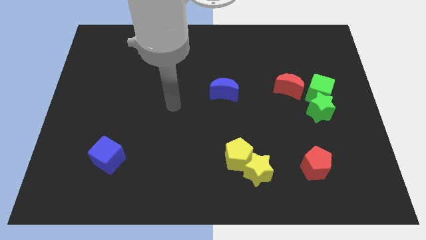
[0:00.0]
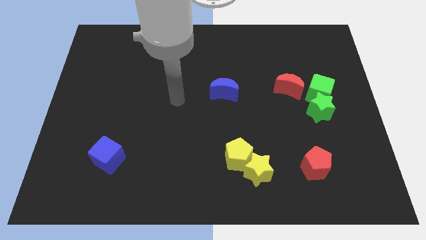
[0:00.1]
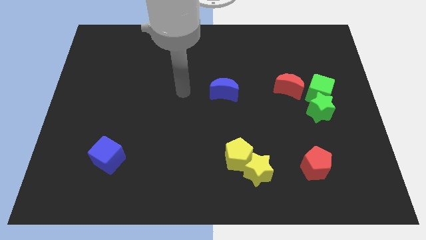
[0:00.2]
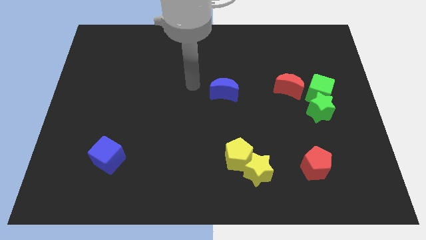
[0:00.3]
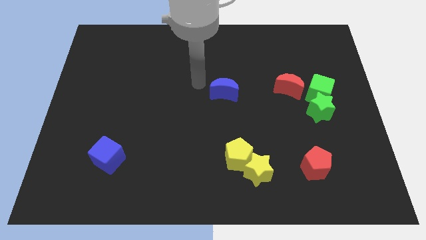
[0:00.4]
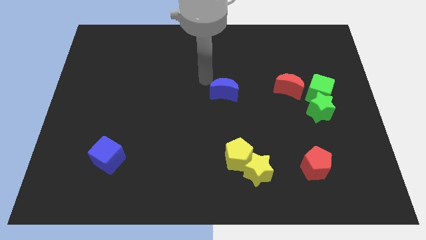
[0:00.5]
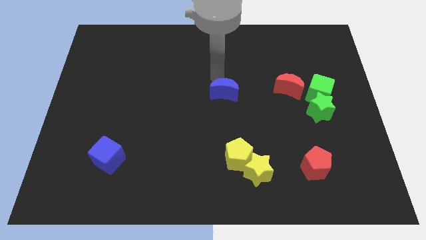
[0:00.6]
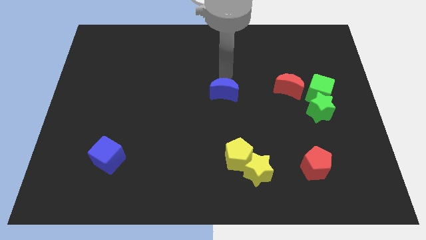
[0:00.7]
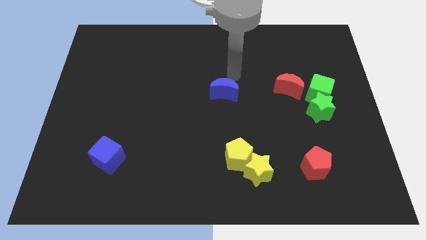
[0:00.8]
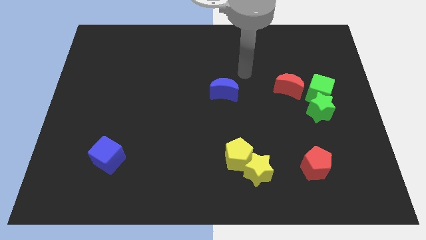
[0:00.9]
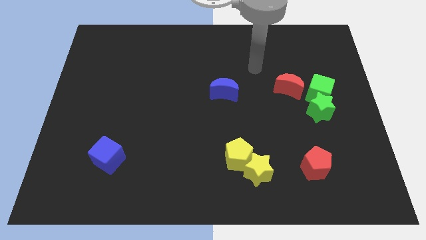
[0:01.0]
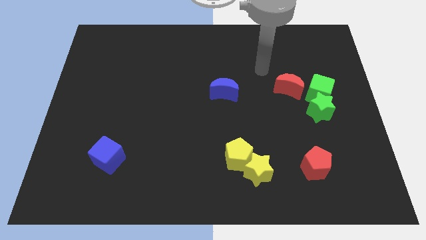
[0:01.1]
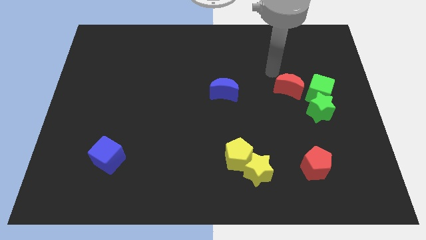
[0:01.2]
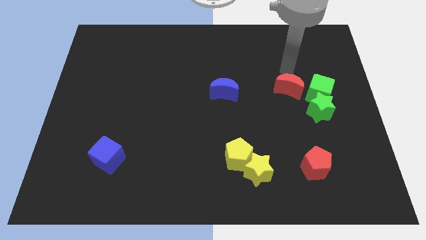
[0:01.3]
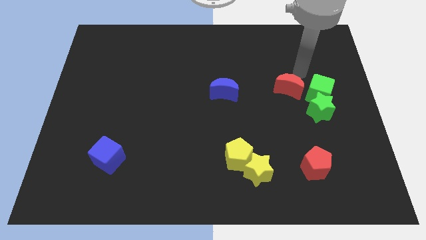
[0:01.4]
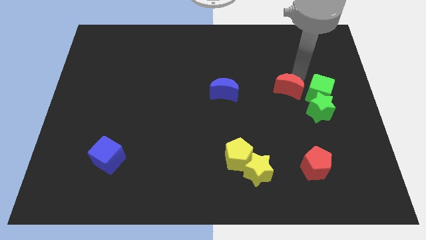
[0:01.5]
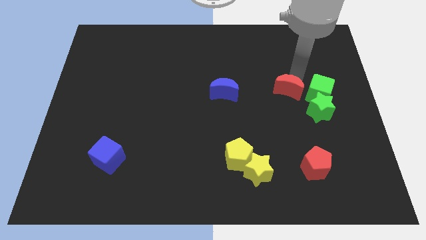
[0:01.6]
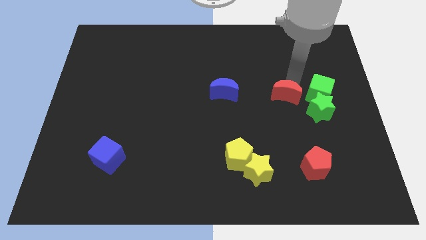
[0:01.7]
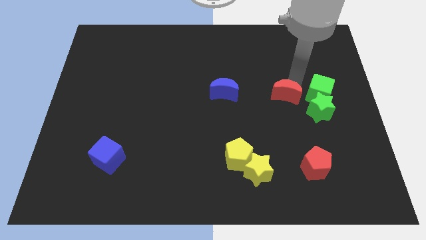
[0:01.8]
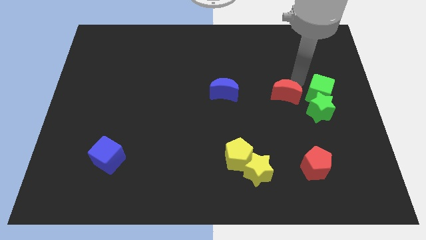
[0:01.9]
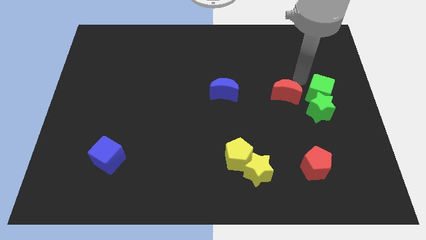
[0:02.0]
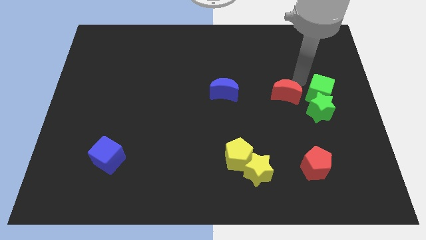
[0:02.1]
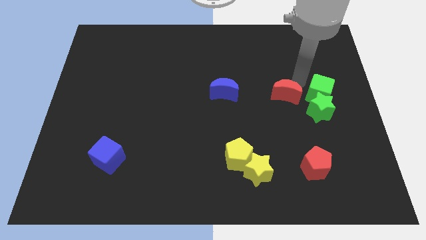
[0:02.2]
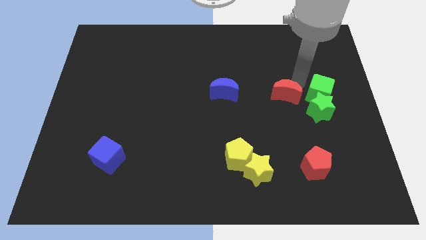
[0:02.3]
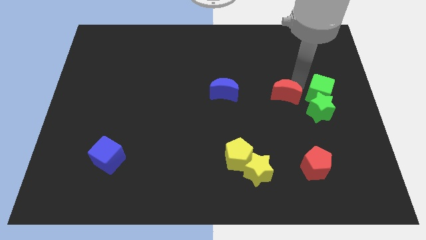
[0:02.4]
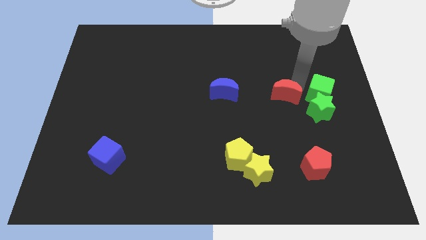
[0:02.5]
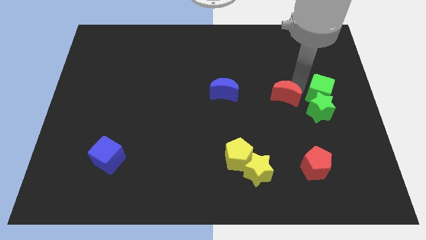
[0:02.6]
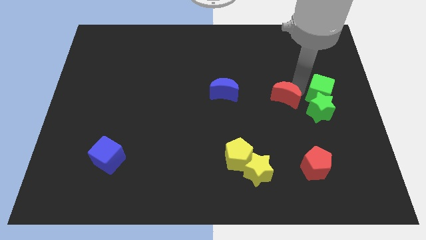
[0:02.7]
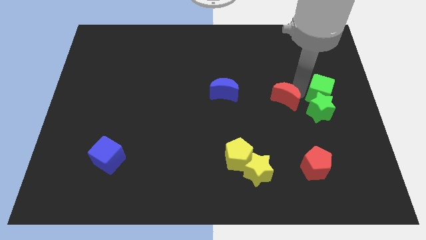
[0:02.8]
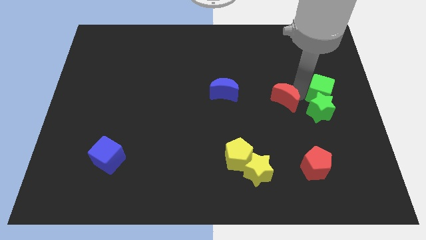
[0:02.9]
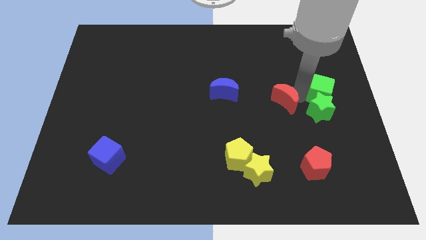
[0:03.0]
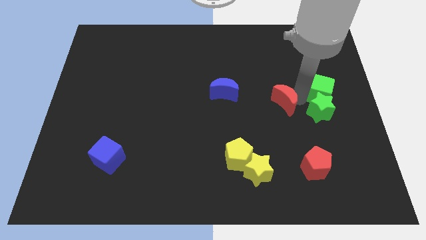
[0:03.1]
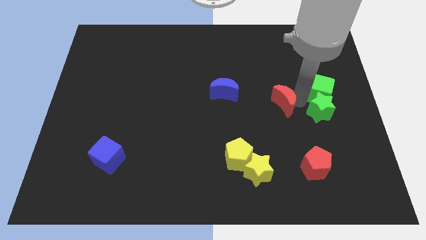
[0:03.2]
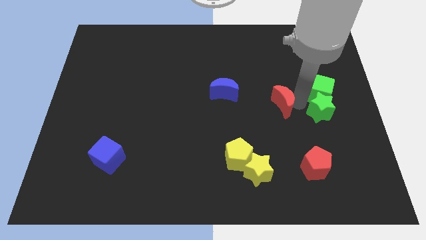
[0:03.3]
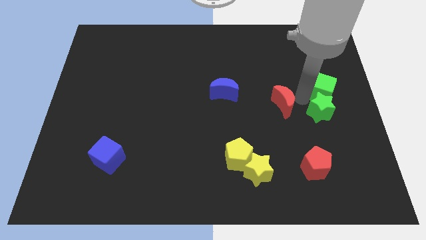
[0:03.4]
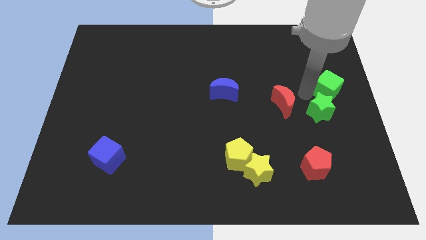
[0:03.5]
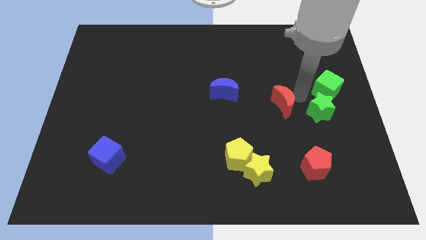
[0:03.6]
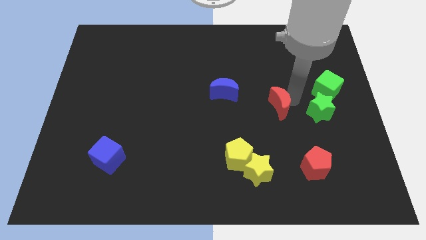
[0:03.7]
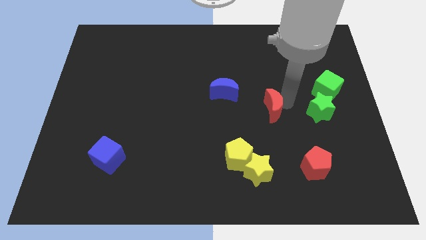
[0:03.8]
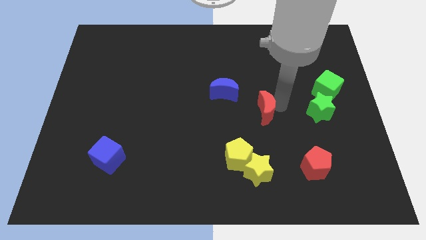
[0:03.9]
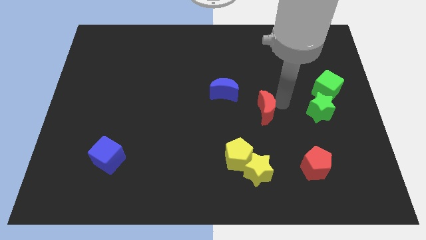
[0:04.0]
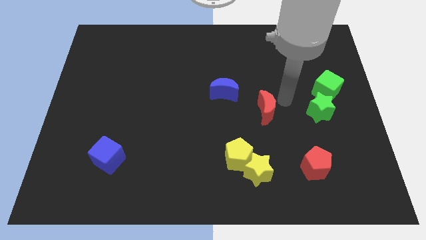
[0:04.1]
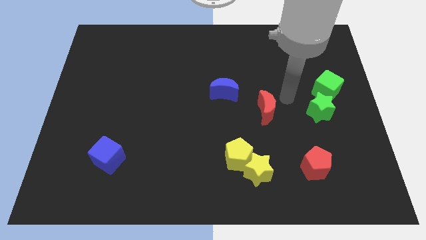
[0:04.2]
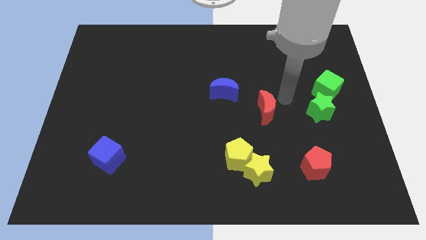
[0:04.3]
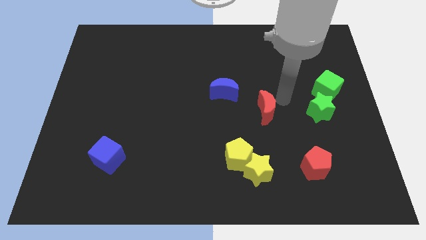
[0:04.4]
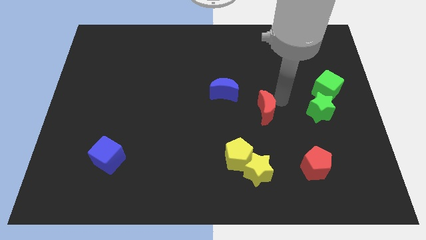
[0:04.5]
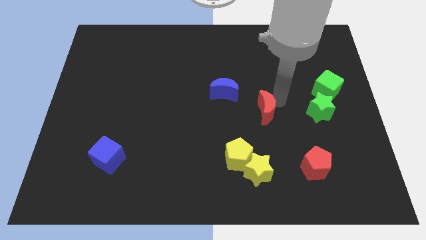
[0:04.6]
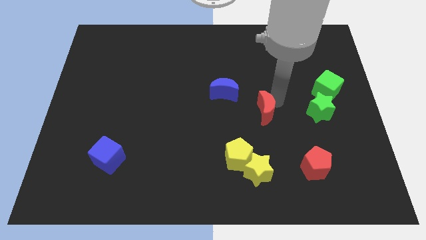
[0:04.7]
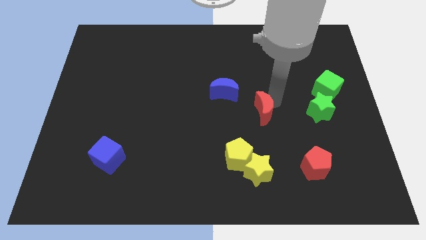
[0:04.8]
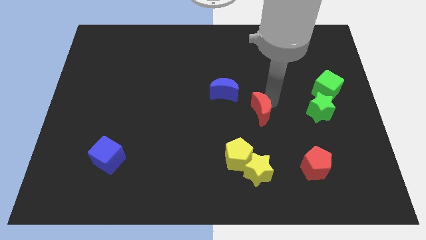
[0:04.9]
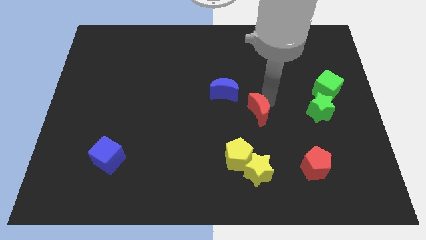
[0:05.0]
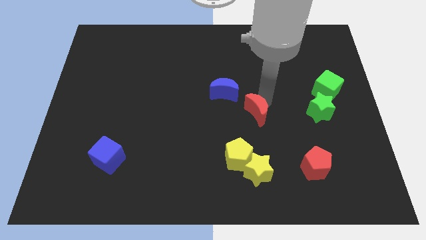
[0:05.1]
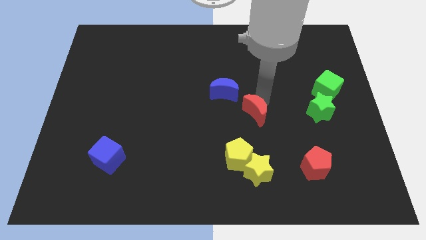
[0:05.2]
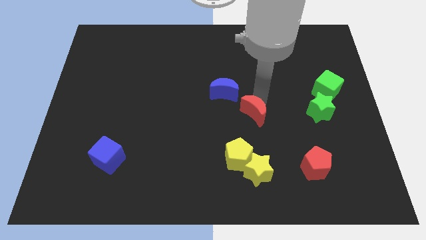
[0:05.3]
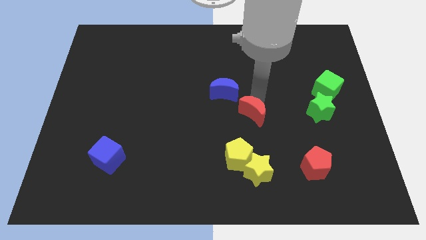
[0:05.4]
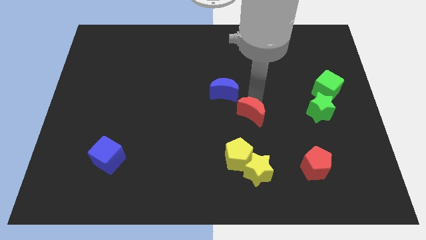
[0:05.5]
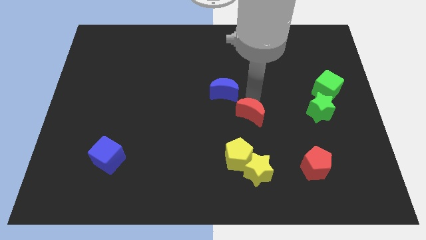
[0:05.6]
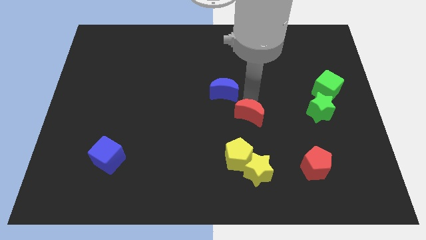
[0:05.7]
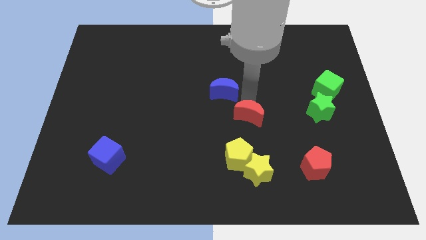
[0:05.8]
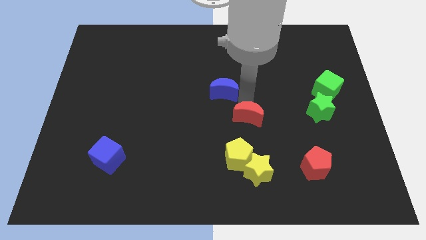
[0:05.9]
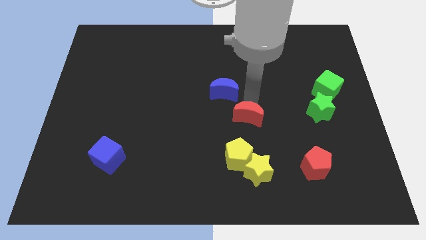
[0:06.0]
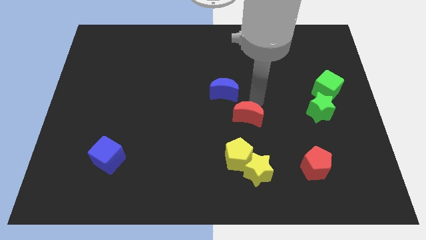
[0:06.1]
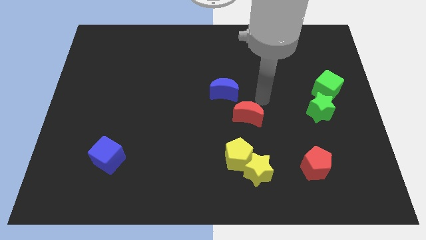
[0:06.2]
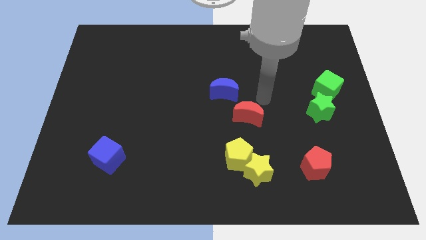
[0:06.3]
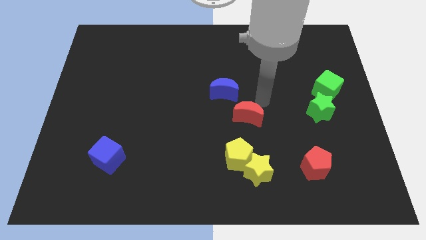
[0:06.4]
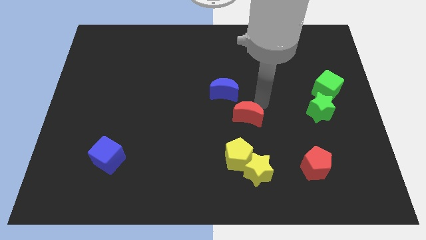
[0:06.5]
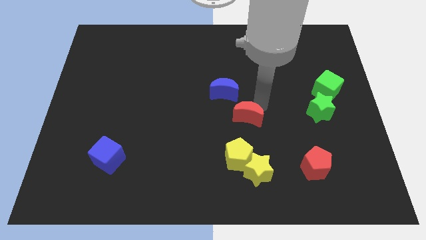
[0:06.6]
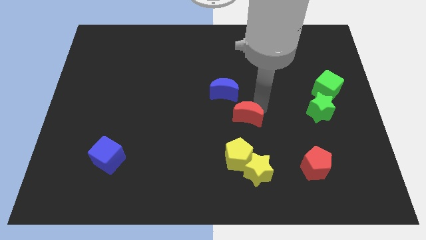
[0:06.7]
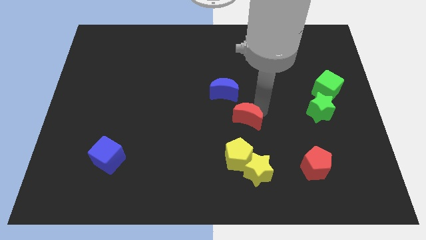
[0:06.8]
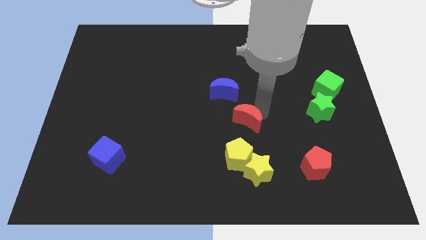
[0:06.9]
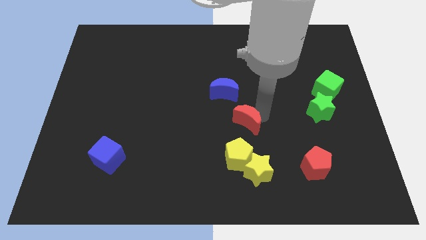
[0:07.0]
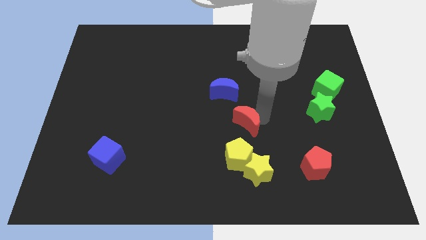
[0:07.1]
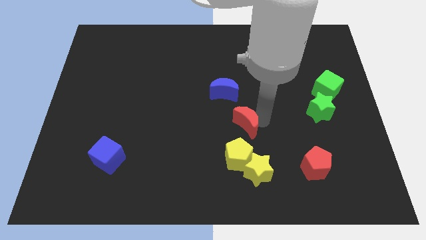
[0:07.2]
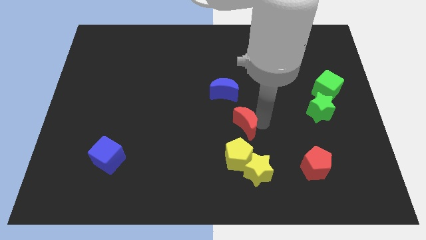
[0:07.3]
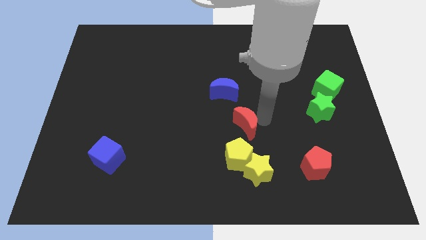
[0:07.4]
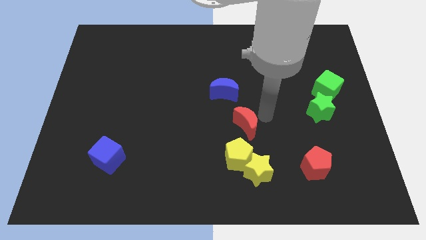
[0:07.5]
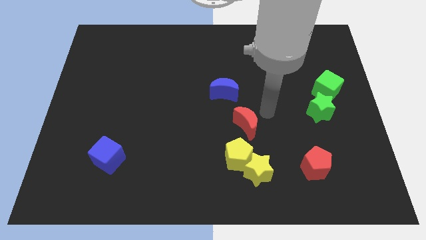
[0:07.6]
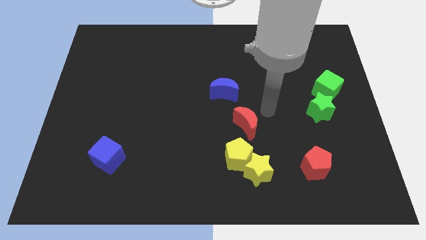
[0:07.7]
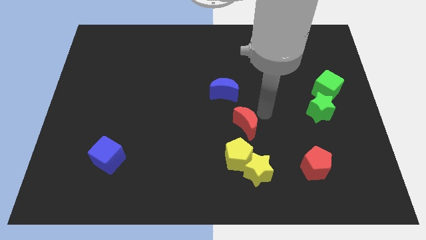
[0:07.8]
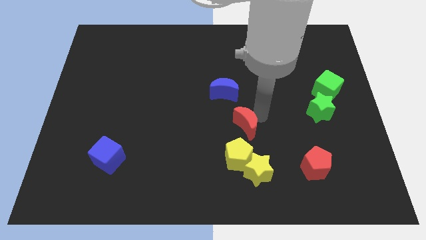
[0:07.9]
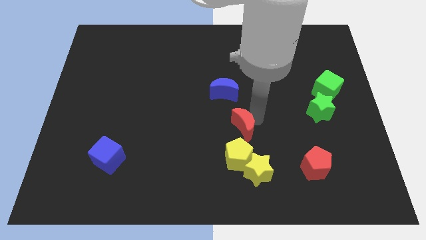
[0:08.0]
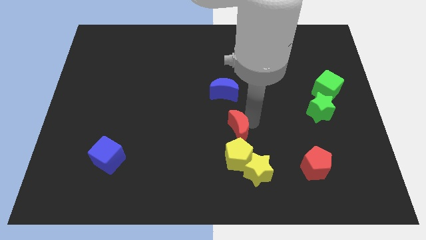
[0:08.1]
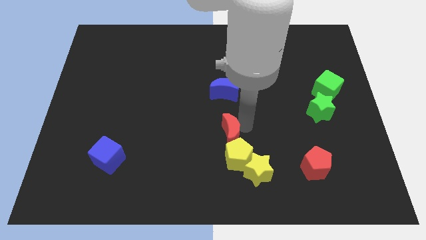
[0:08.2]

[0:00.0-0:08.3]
slide the red moon down and to the left

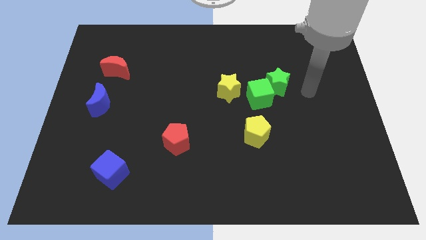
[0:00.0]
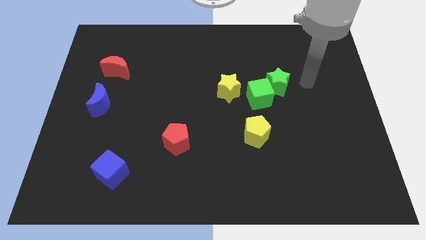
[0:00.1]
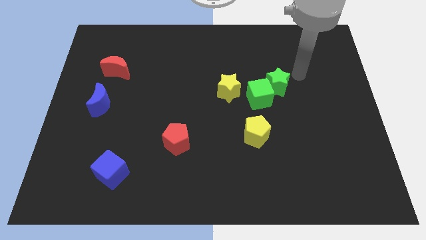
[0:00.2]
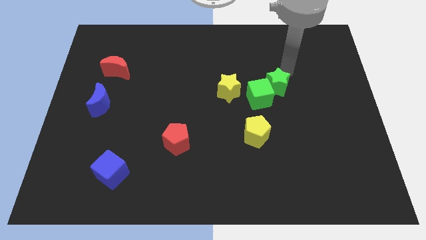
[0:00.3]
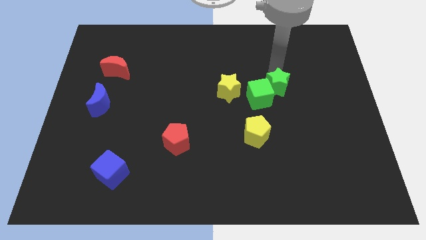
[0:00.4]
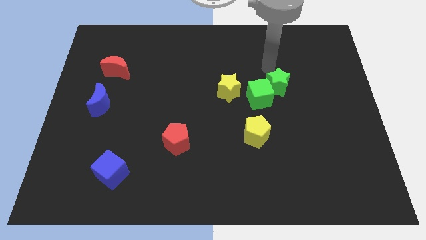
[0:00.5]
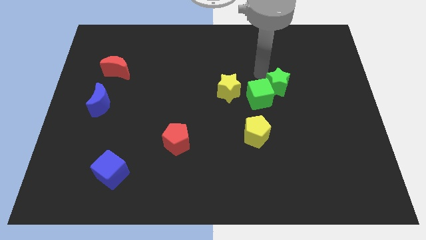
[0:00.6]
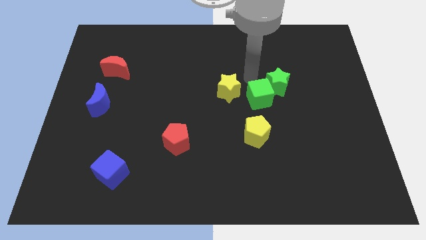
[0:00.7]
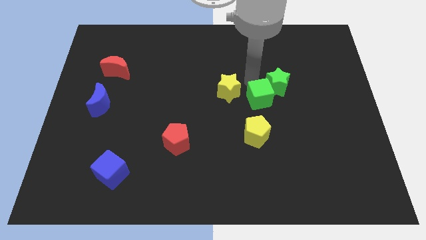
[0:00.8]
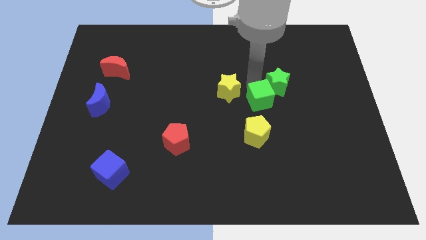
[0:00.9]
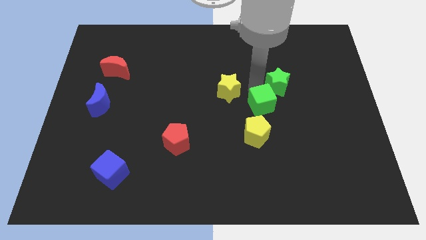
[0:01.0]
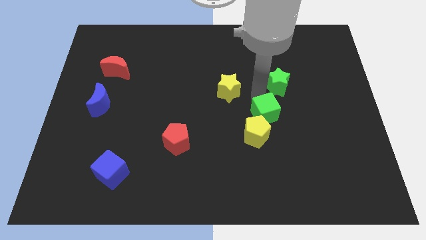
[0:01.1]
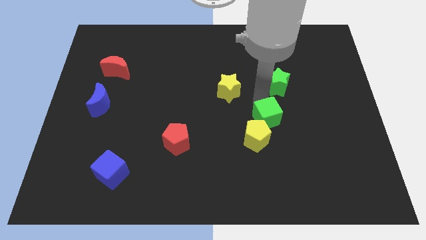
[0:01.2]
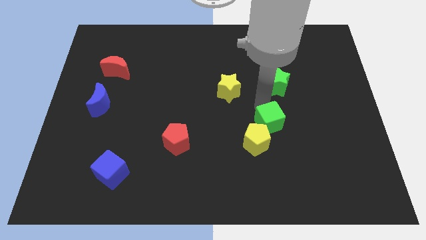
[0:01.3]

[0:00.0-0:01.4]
slightly move the green cube downwards
